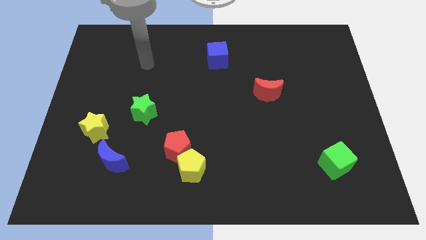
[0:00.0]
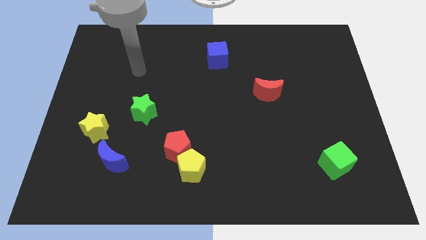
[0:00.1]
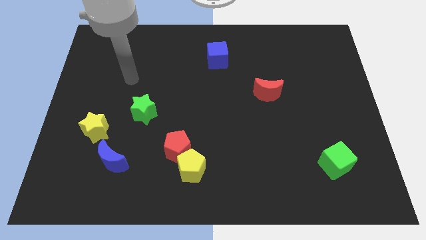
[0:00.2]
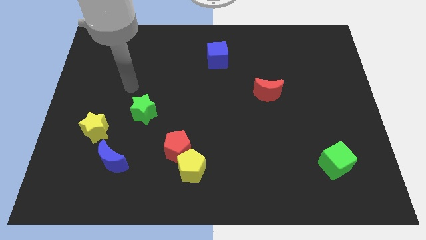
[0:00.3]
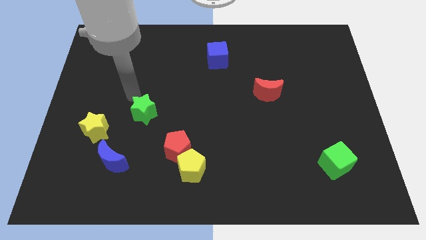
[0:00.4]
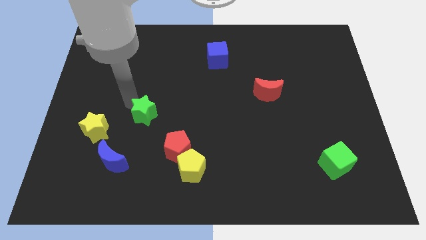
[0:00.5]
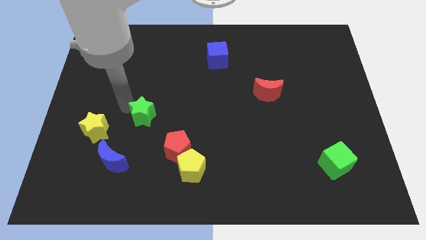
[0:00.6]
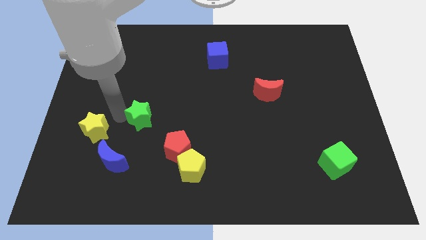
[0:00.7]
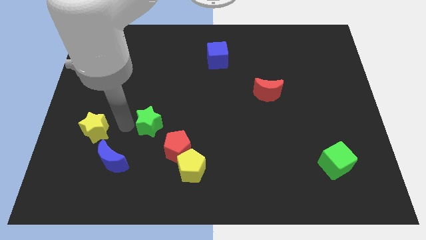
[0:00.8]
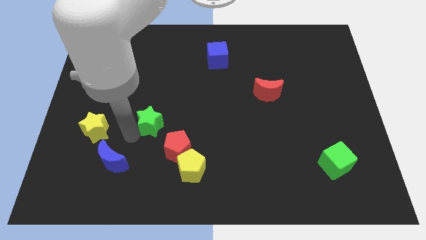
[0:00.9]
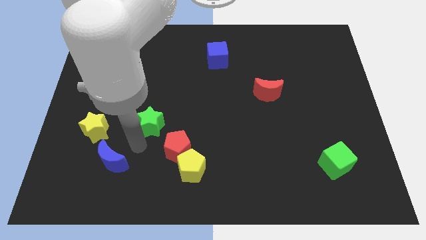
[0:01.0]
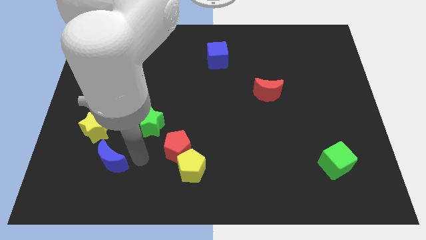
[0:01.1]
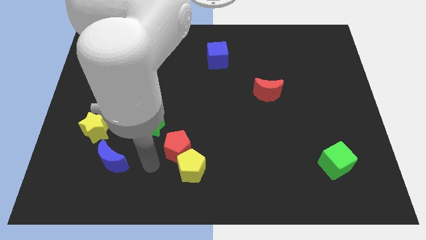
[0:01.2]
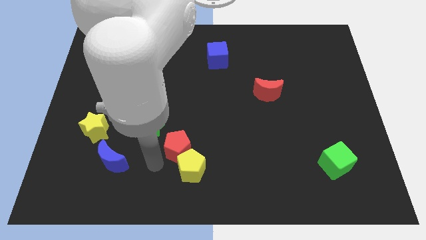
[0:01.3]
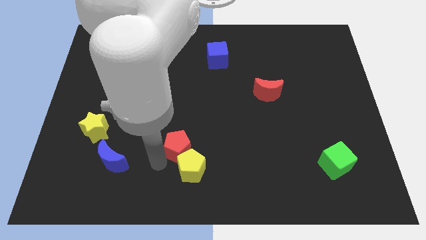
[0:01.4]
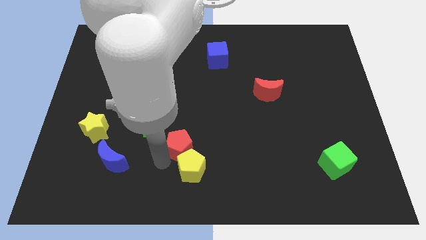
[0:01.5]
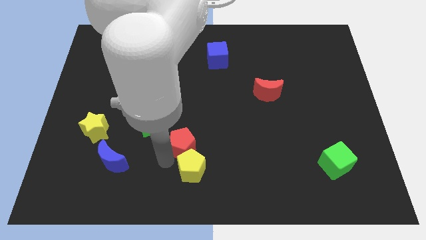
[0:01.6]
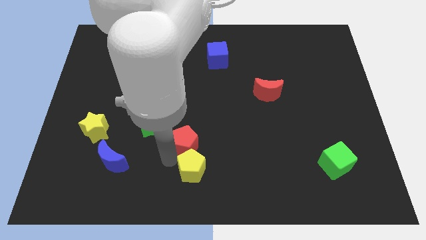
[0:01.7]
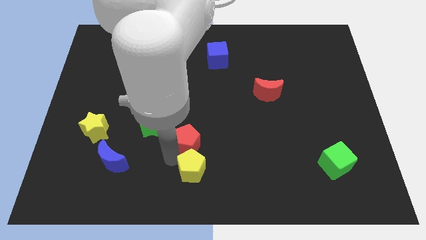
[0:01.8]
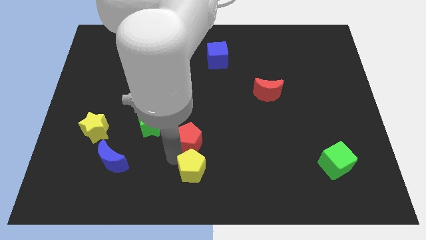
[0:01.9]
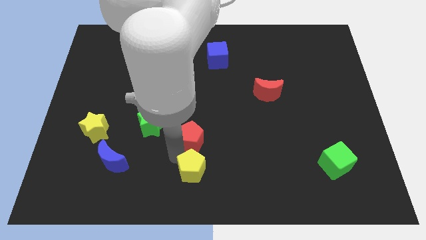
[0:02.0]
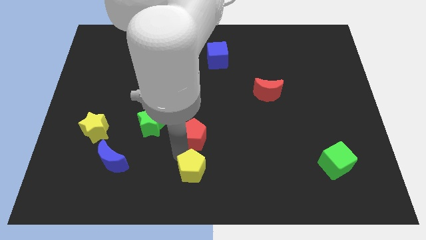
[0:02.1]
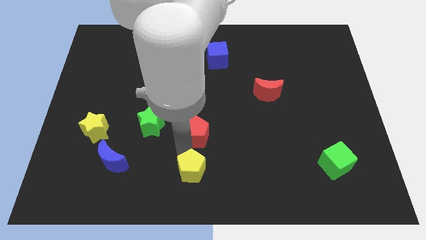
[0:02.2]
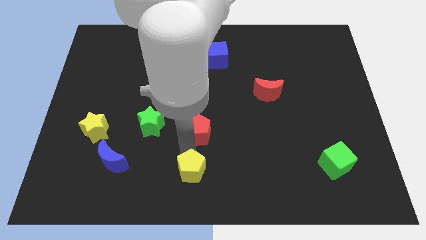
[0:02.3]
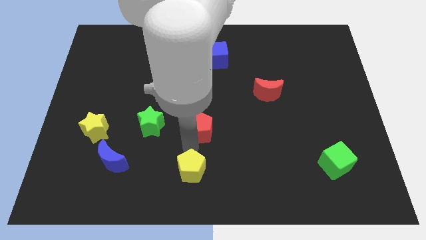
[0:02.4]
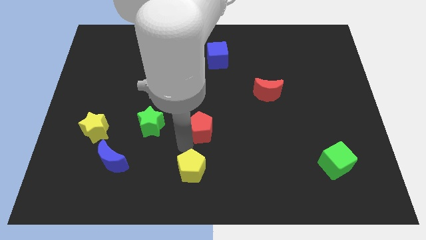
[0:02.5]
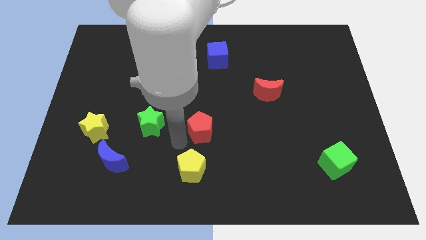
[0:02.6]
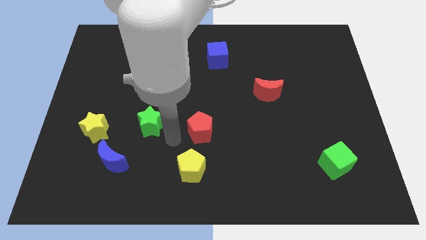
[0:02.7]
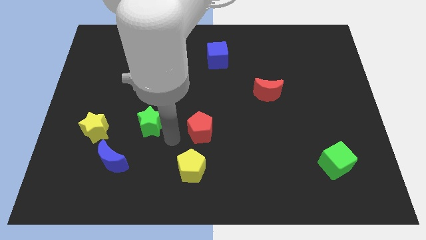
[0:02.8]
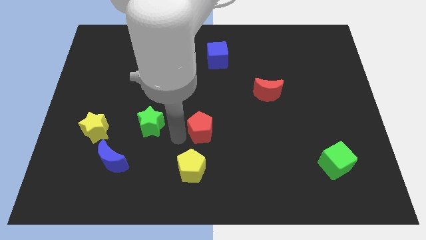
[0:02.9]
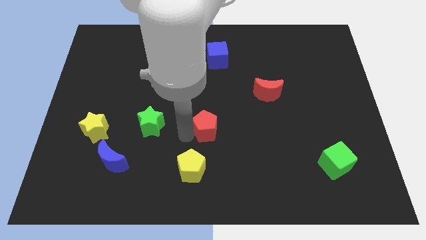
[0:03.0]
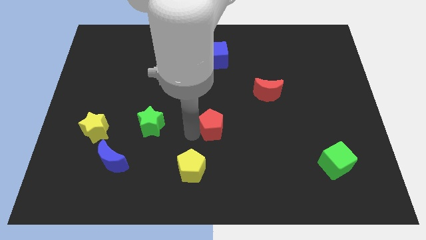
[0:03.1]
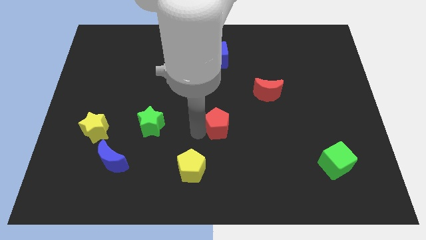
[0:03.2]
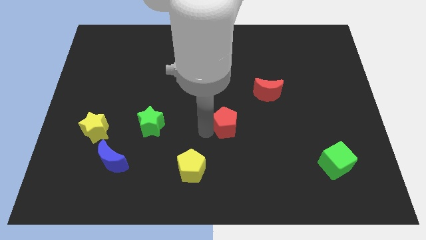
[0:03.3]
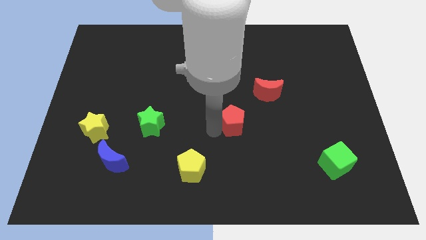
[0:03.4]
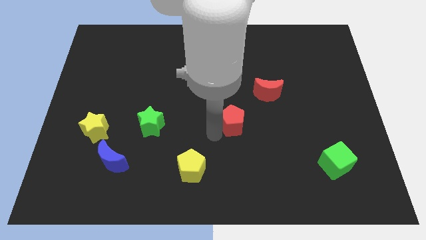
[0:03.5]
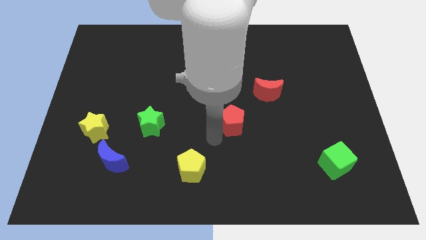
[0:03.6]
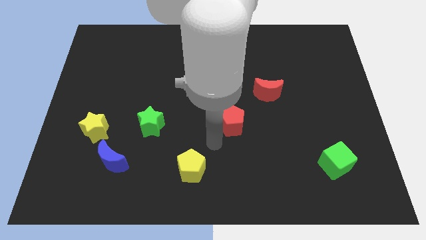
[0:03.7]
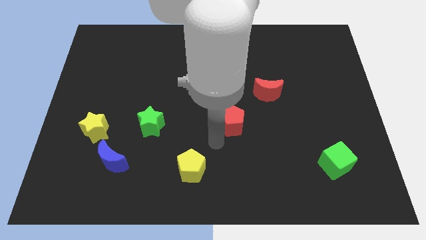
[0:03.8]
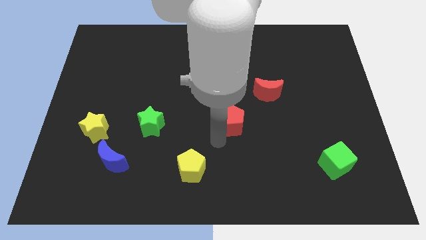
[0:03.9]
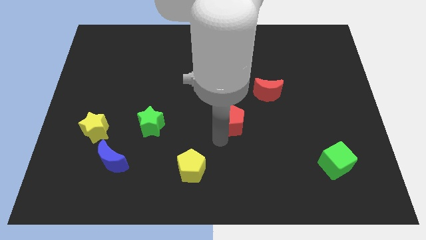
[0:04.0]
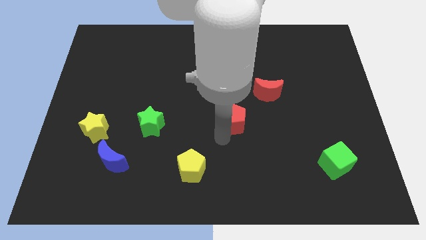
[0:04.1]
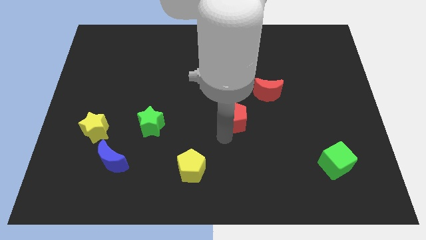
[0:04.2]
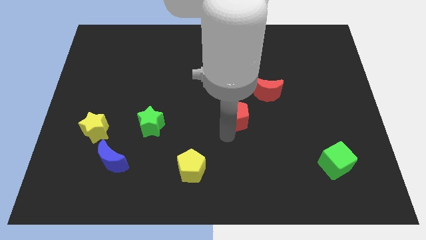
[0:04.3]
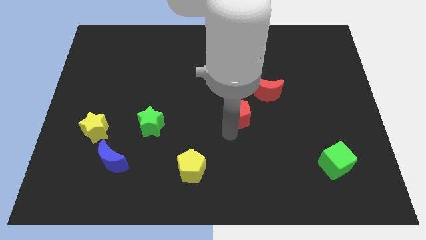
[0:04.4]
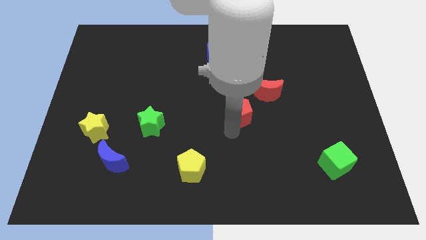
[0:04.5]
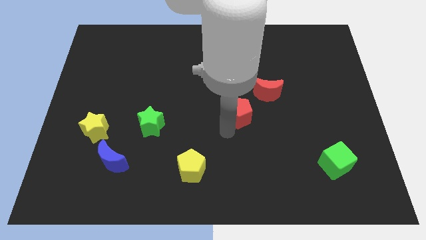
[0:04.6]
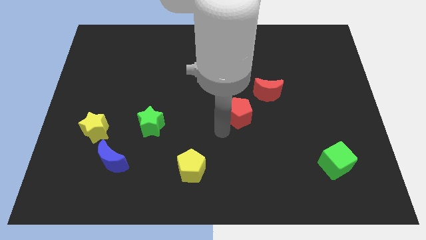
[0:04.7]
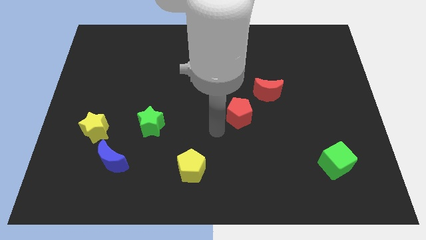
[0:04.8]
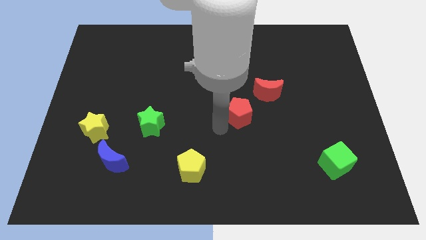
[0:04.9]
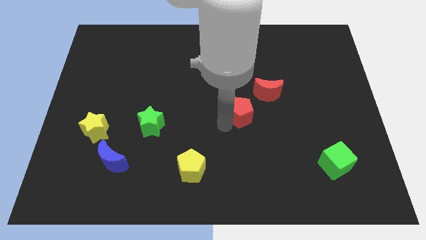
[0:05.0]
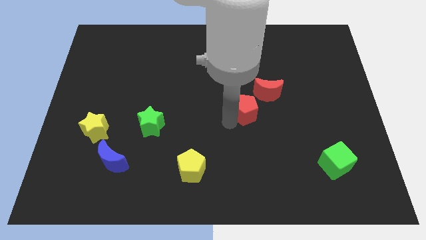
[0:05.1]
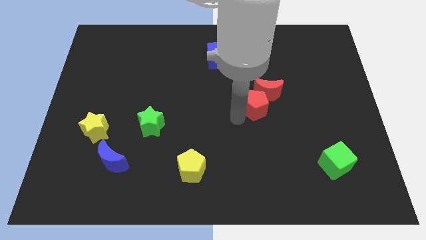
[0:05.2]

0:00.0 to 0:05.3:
put the red pentagon to the red moon

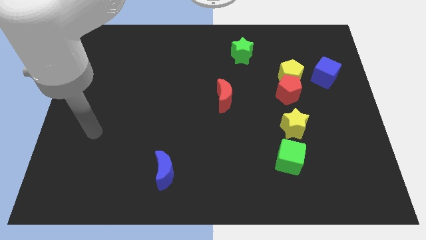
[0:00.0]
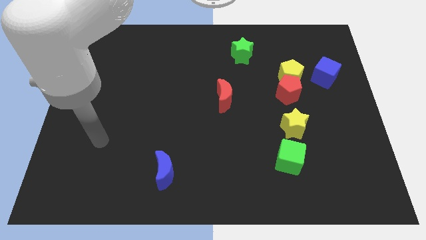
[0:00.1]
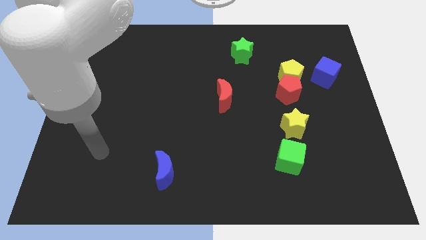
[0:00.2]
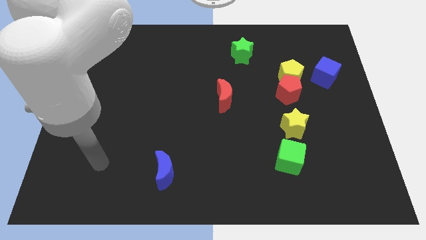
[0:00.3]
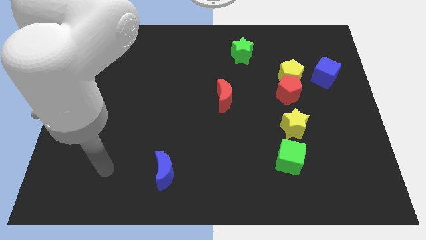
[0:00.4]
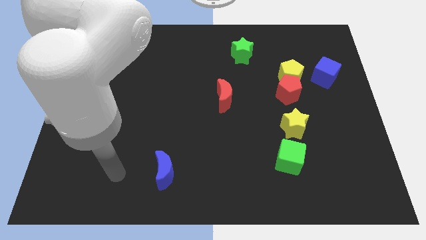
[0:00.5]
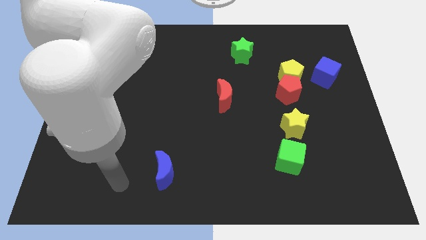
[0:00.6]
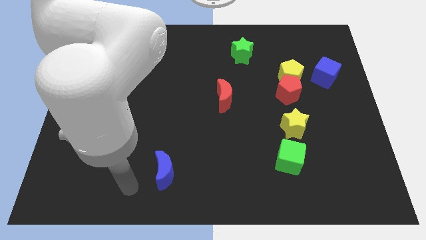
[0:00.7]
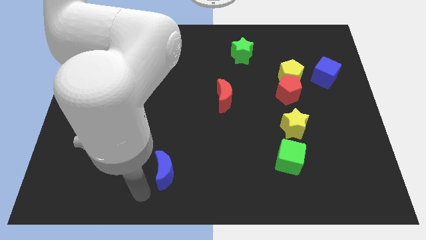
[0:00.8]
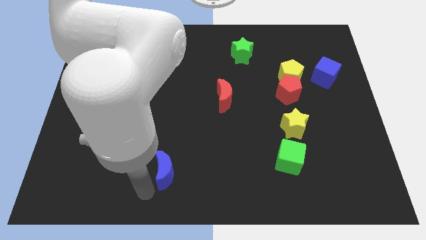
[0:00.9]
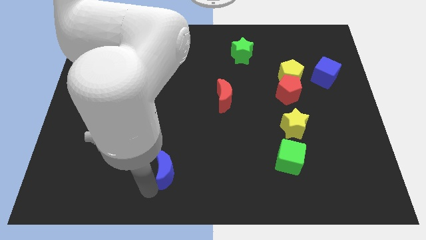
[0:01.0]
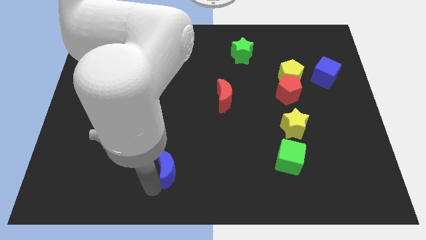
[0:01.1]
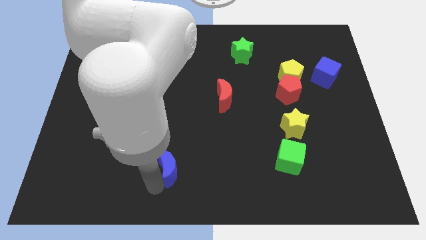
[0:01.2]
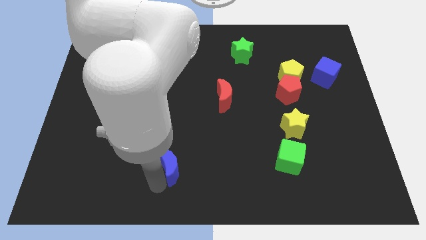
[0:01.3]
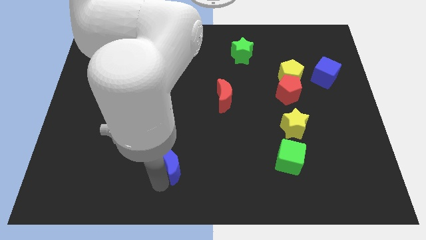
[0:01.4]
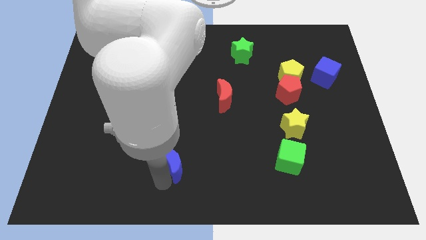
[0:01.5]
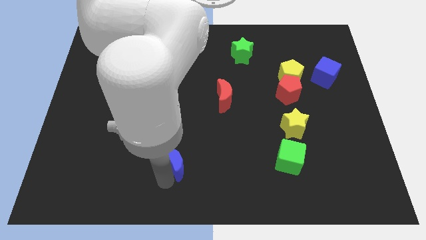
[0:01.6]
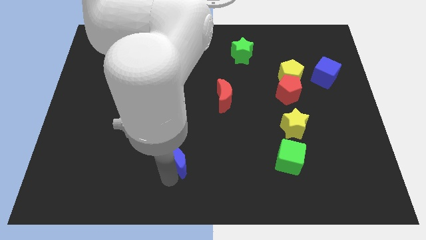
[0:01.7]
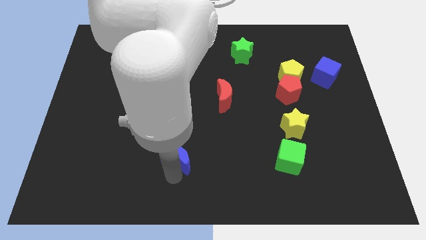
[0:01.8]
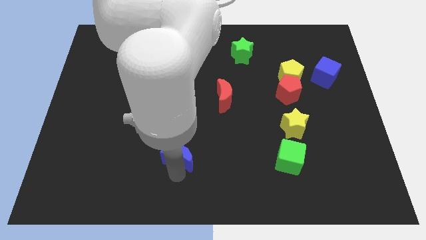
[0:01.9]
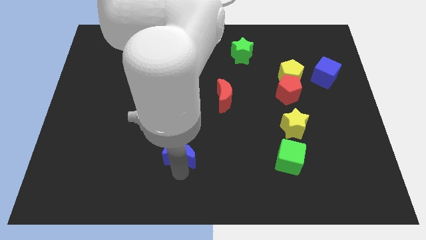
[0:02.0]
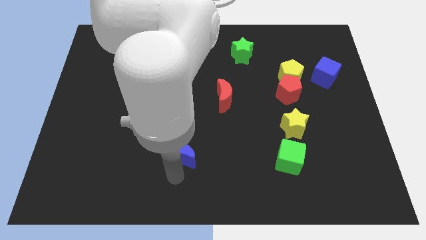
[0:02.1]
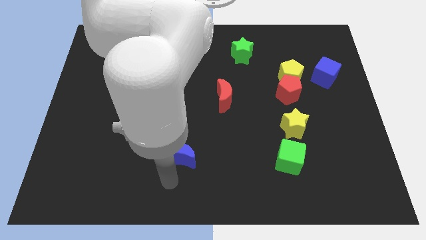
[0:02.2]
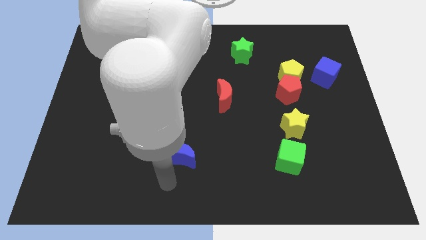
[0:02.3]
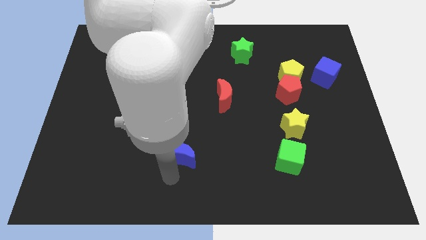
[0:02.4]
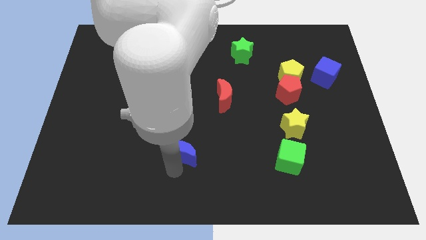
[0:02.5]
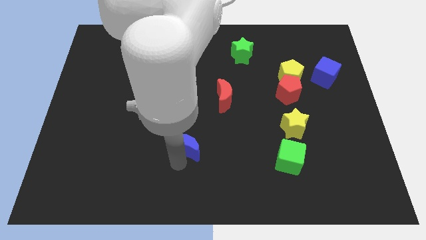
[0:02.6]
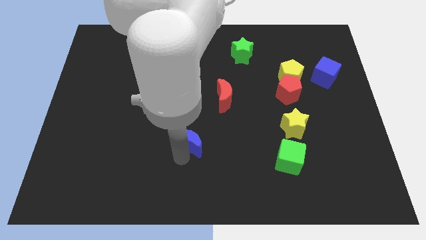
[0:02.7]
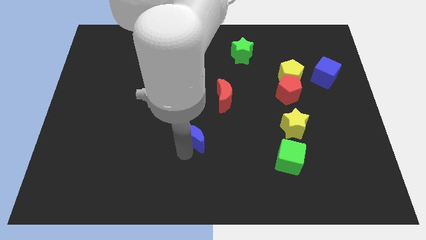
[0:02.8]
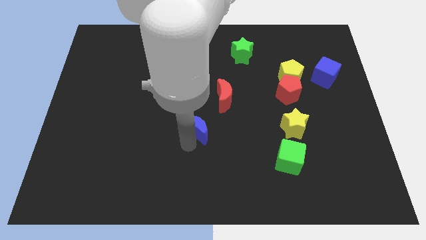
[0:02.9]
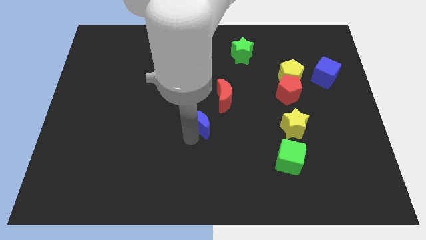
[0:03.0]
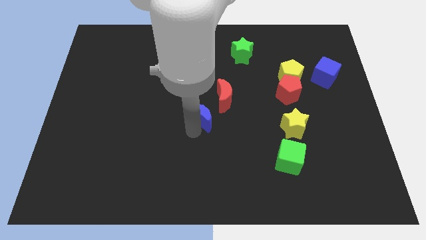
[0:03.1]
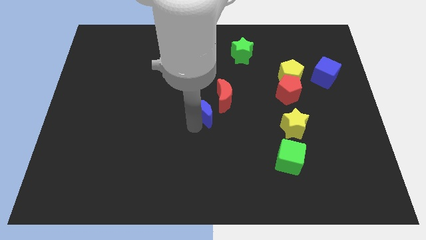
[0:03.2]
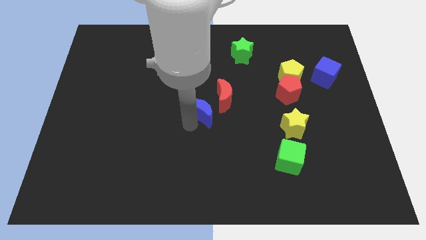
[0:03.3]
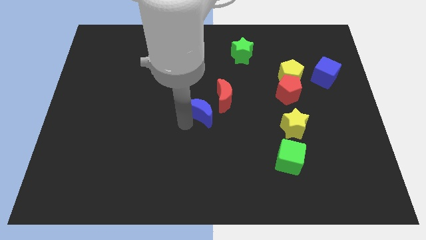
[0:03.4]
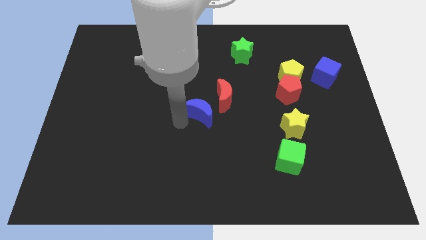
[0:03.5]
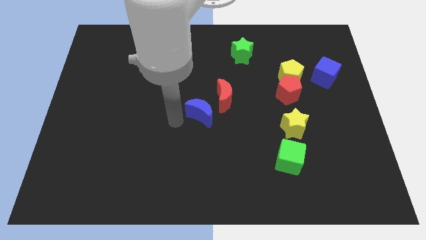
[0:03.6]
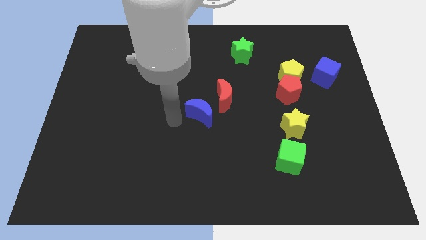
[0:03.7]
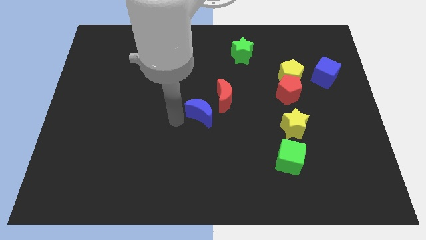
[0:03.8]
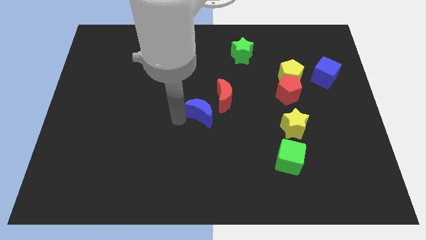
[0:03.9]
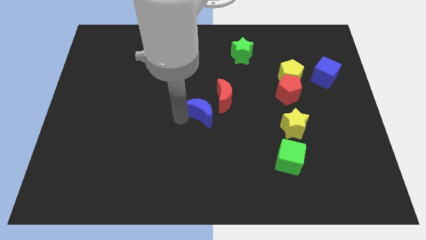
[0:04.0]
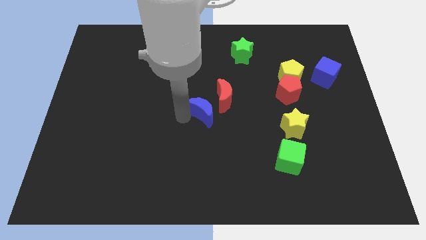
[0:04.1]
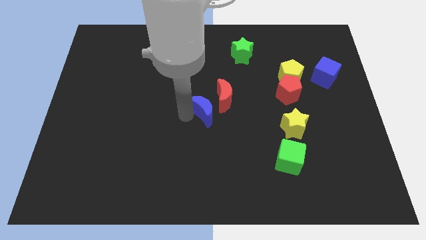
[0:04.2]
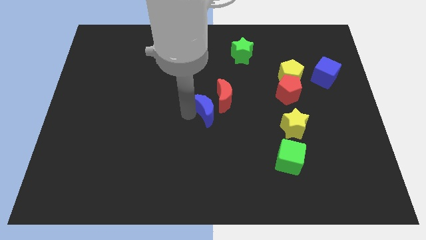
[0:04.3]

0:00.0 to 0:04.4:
put the blue moon to the red moon
